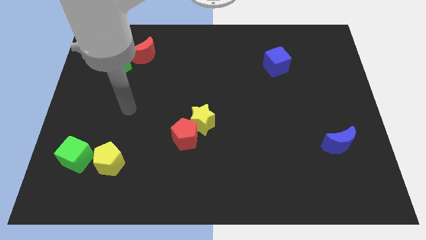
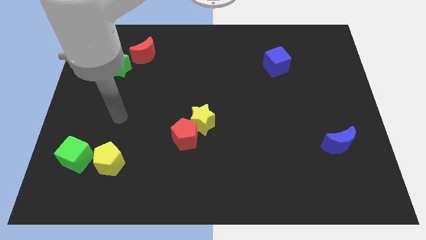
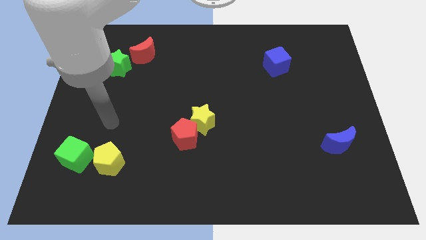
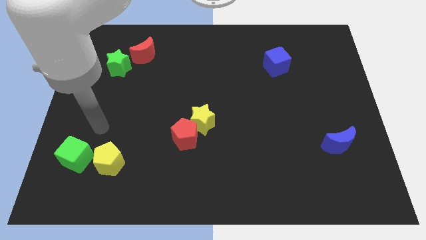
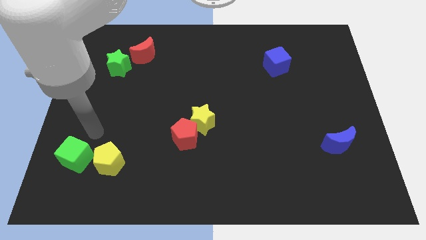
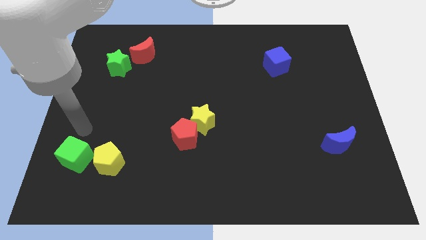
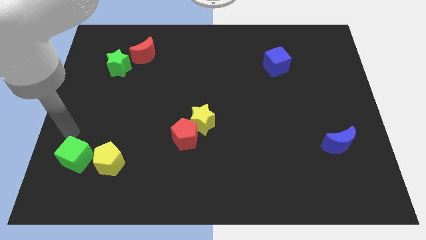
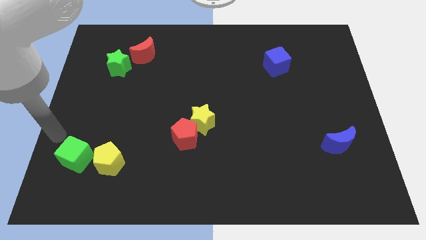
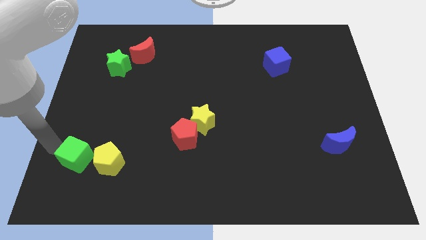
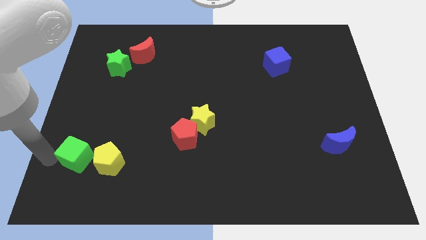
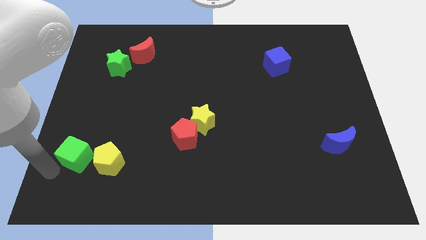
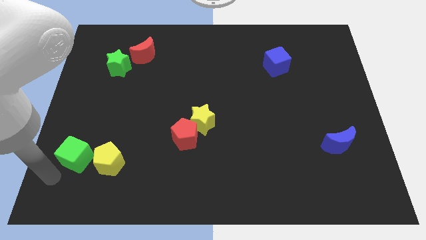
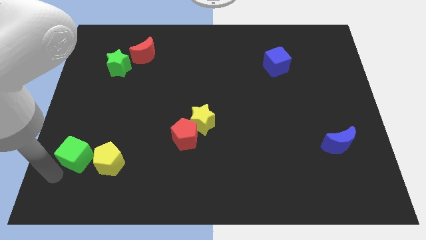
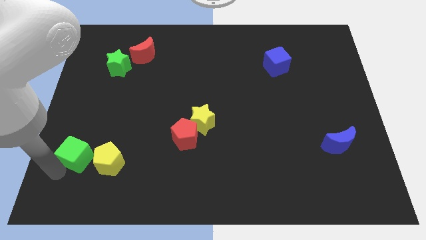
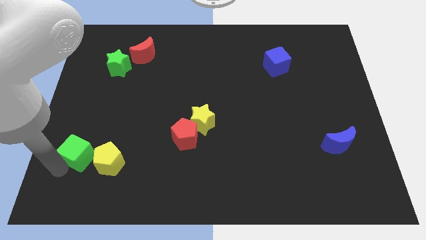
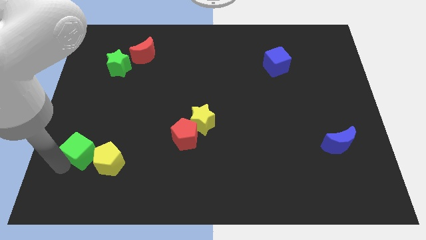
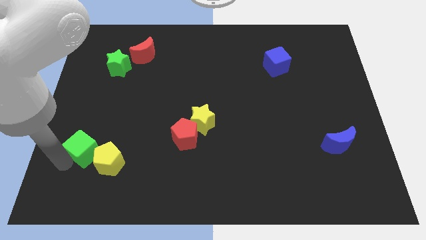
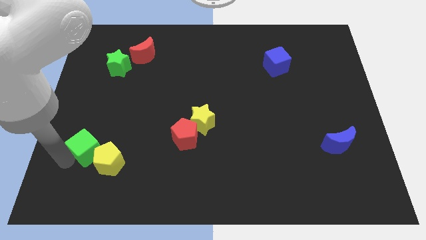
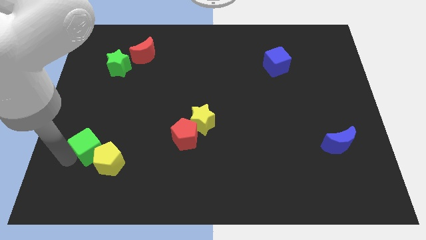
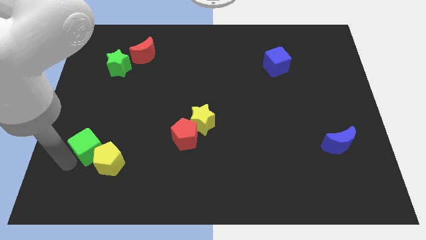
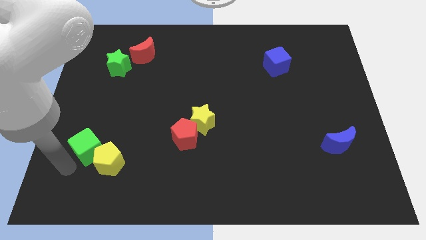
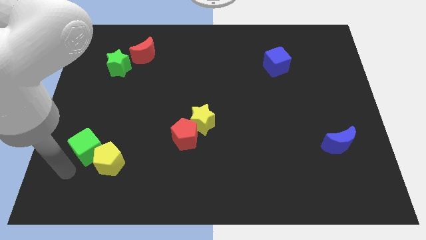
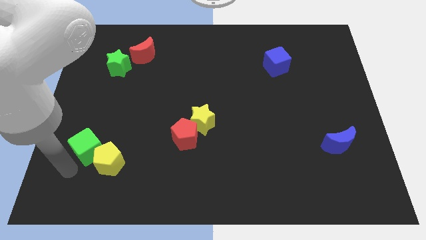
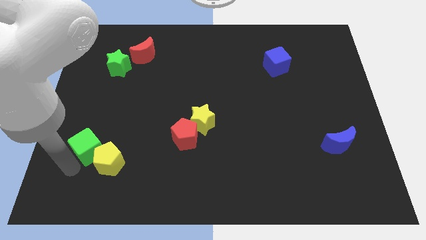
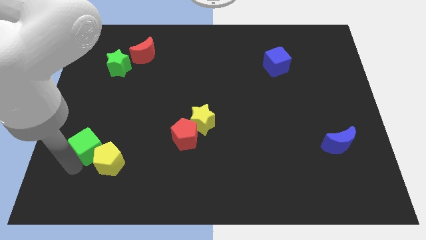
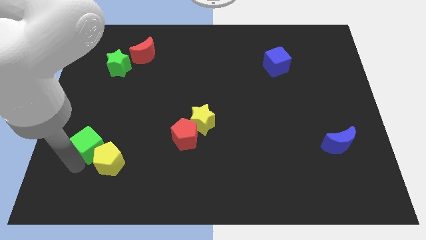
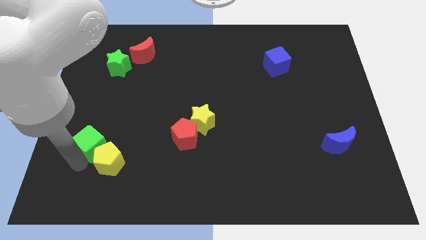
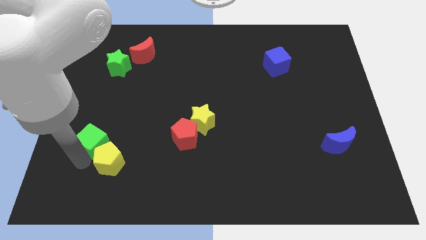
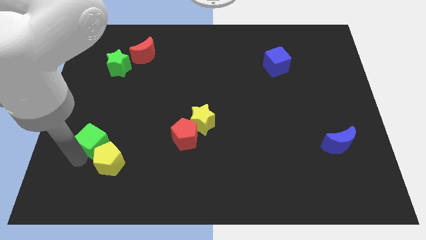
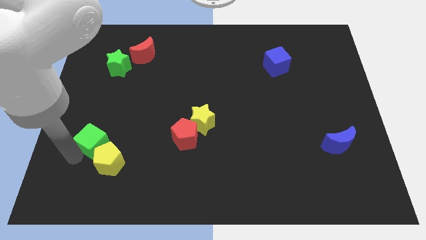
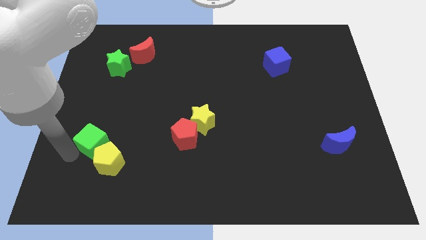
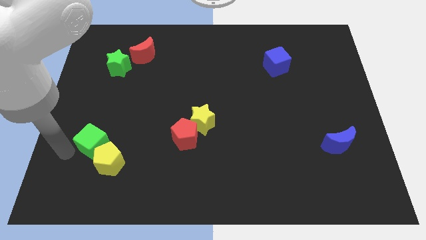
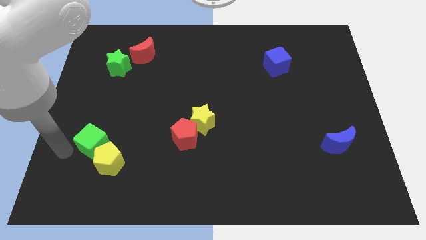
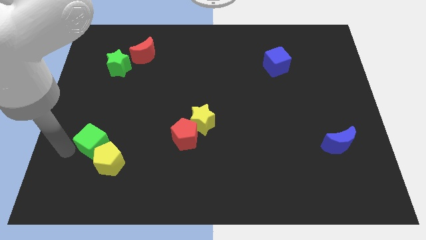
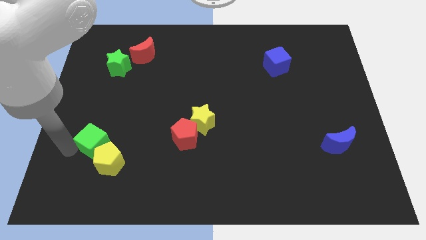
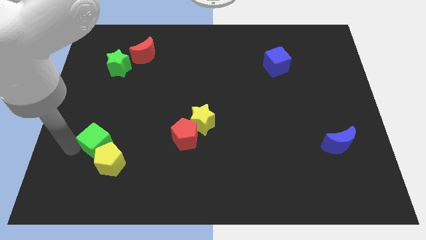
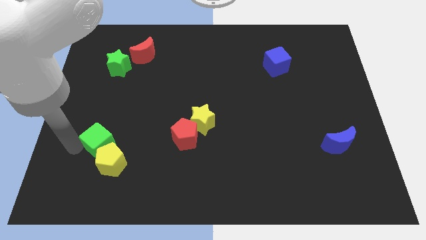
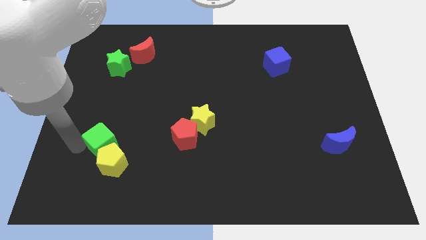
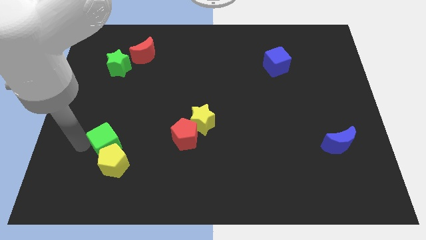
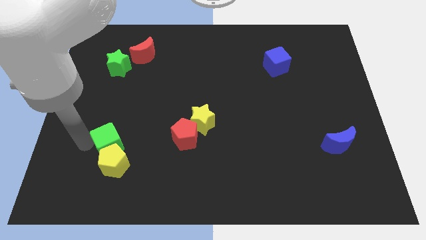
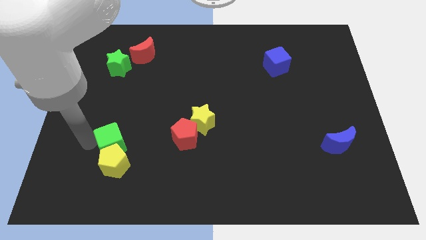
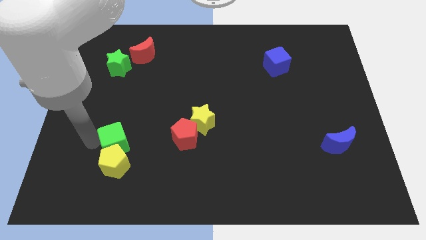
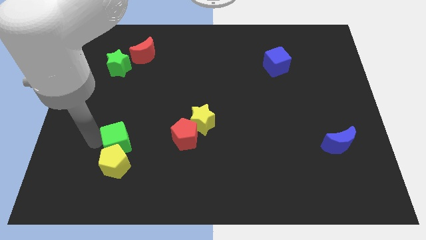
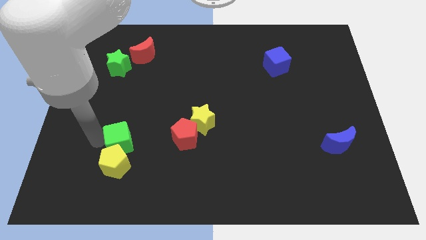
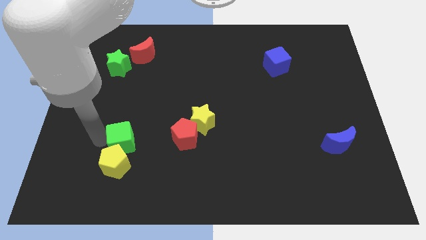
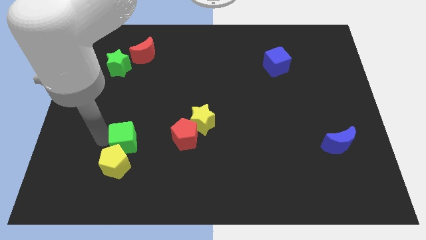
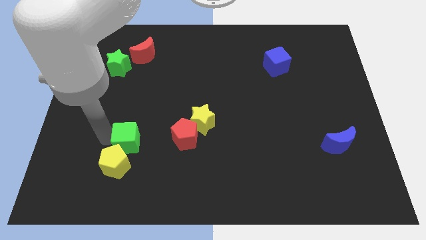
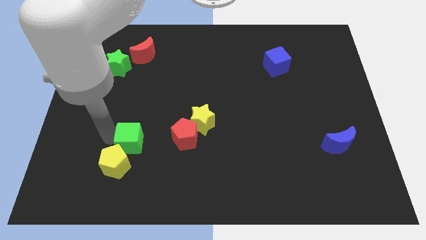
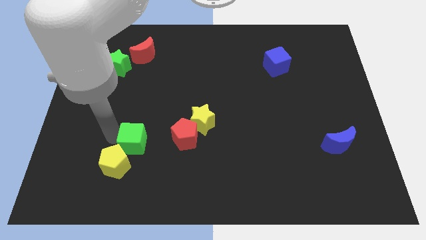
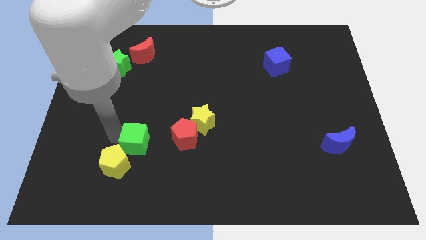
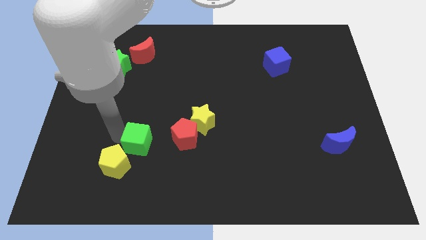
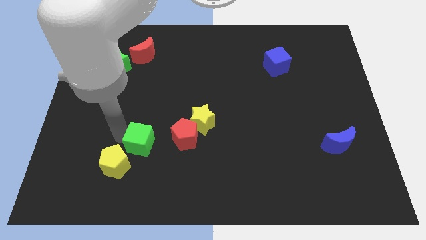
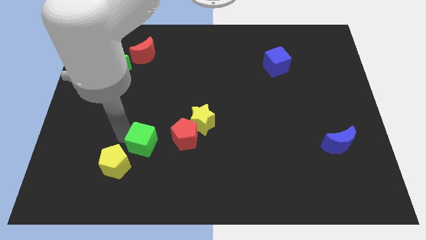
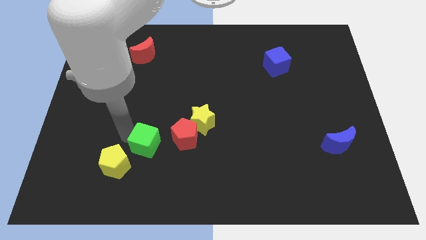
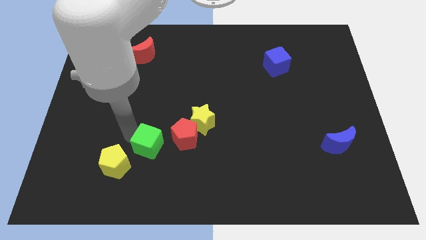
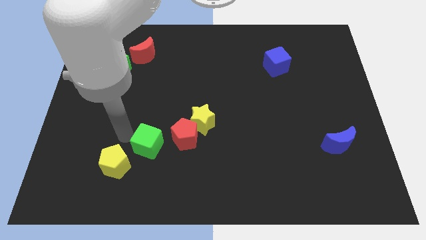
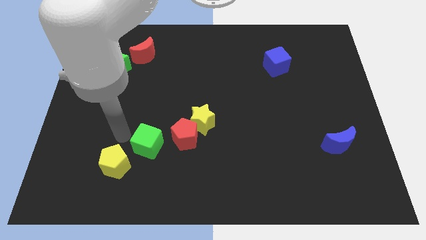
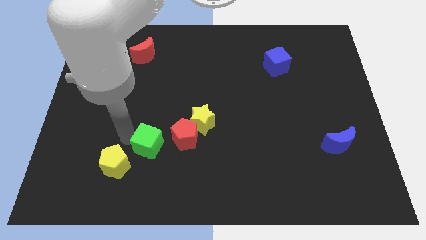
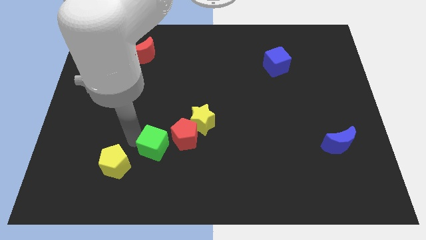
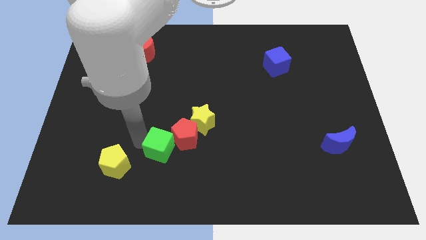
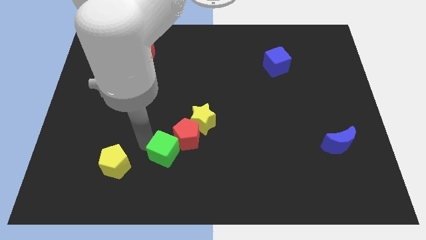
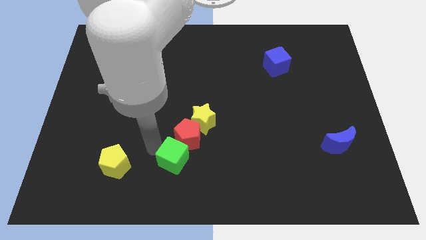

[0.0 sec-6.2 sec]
move the green cube right

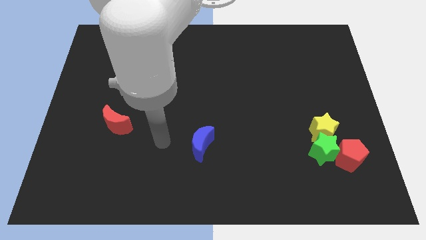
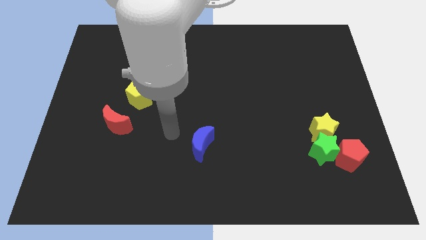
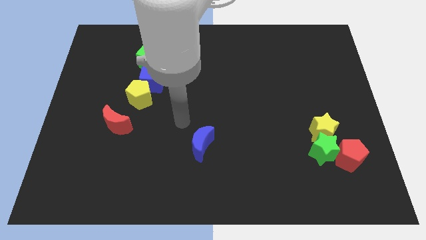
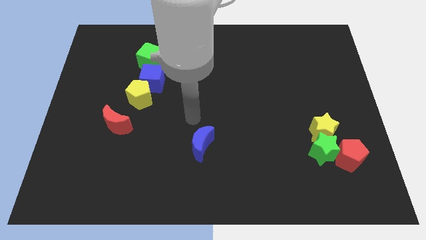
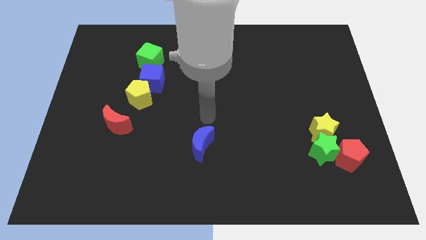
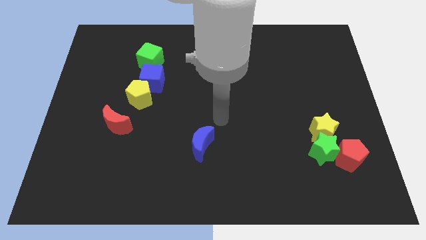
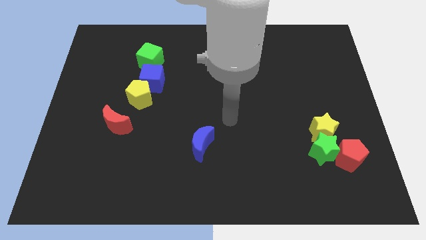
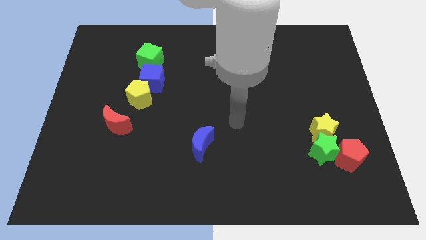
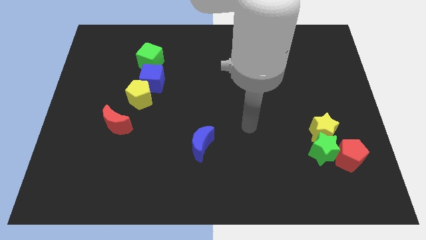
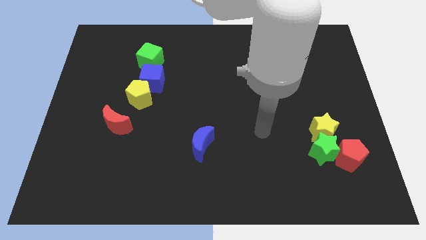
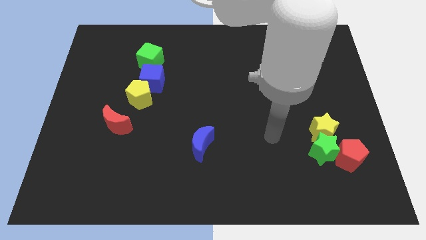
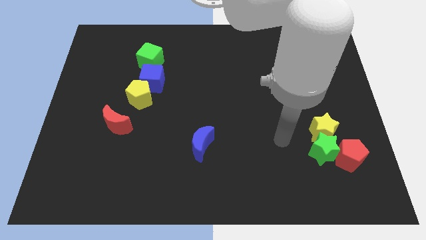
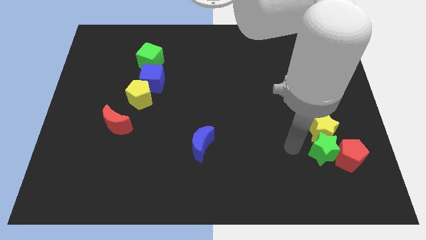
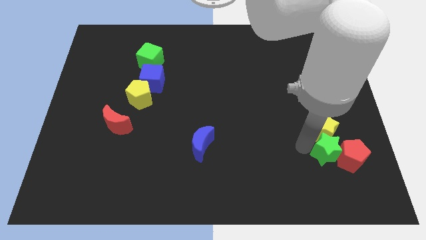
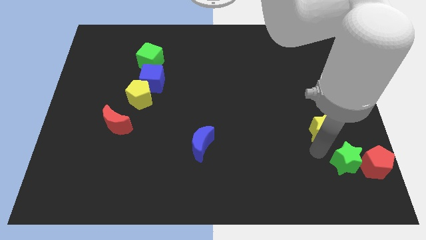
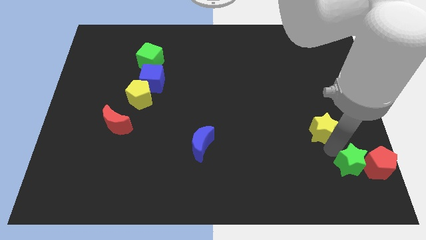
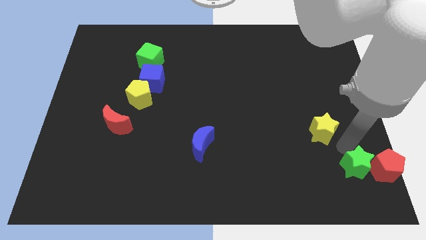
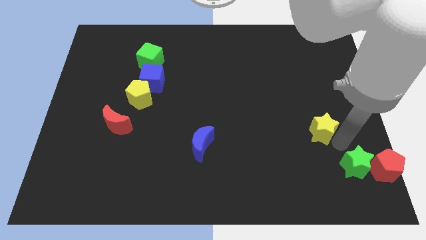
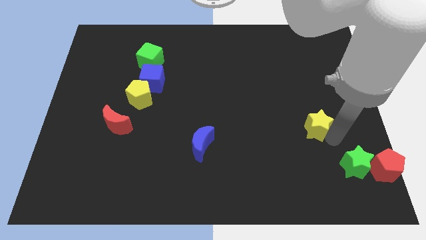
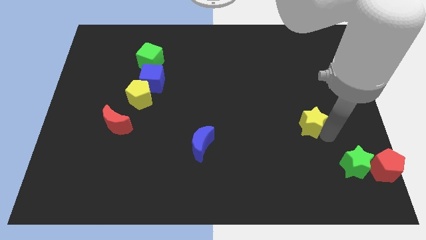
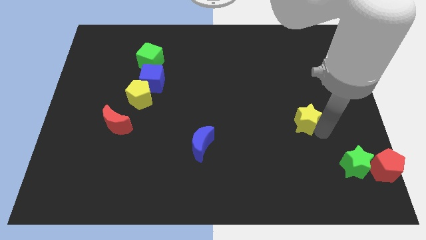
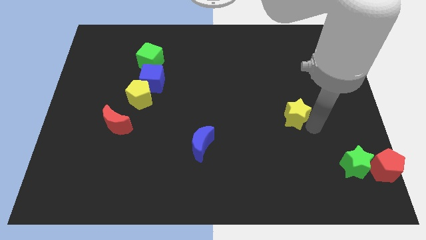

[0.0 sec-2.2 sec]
slightly slide the yellow star upwards and to the left
